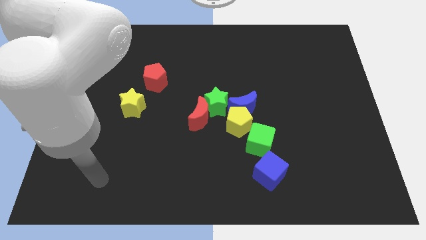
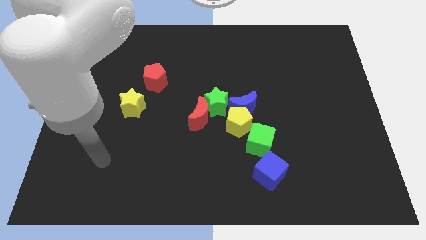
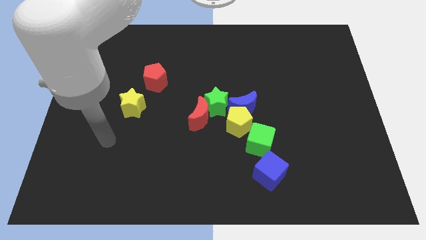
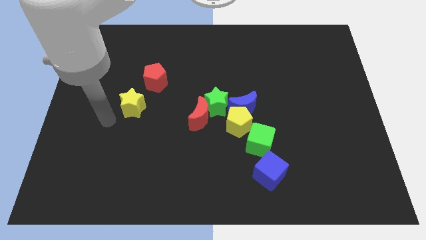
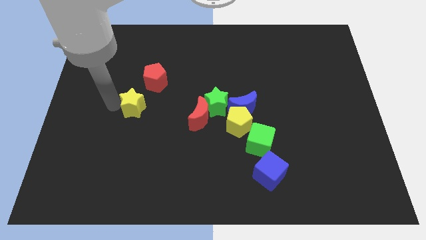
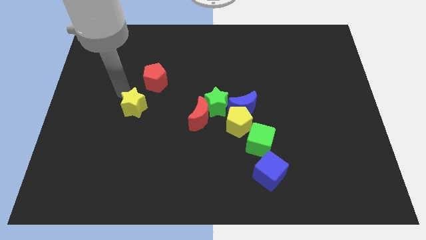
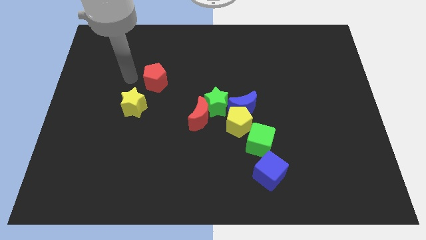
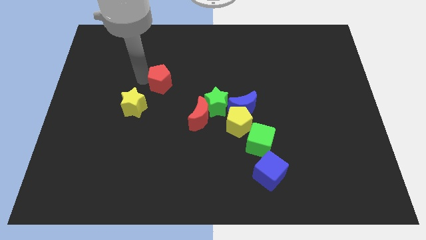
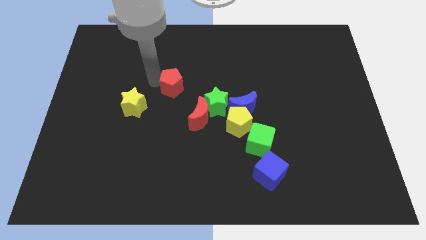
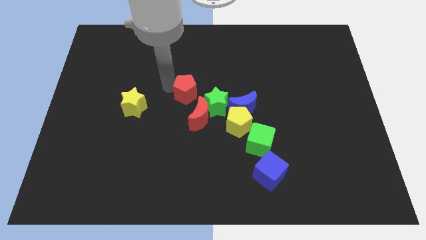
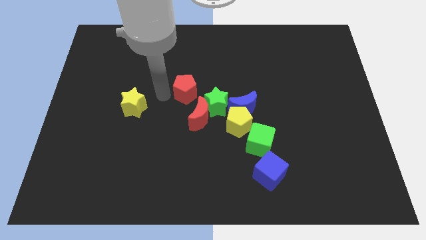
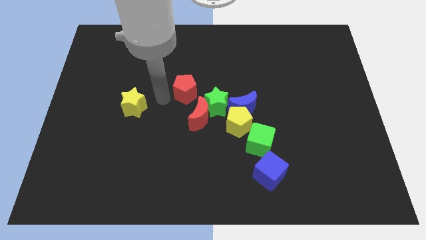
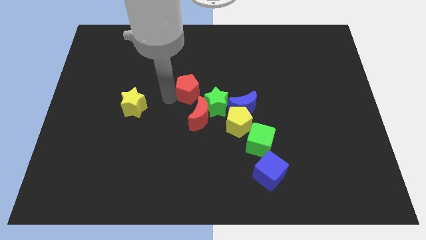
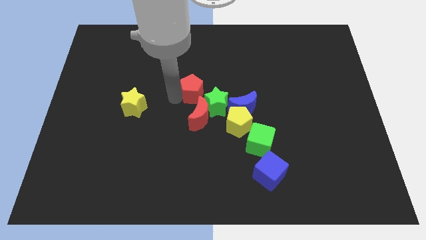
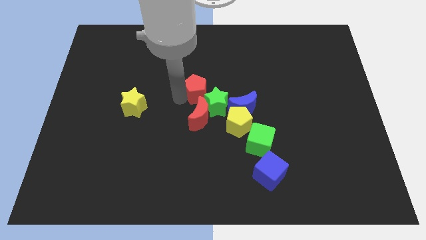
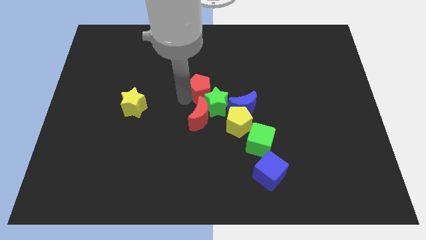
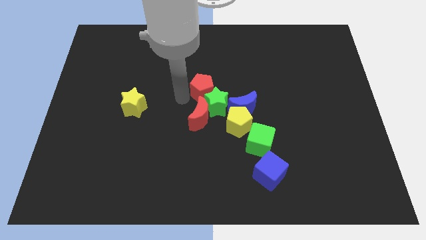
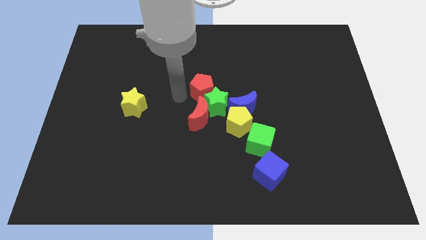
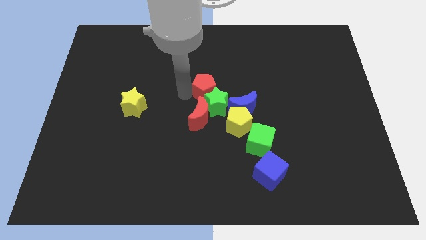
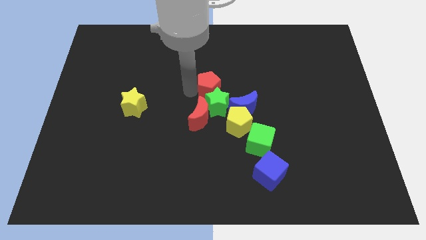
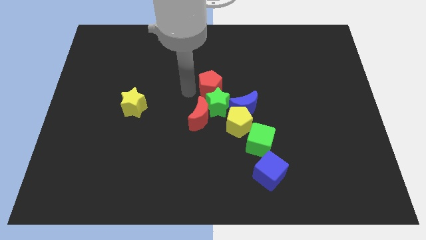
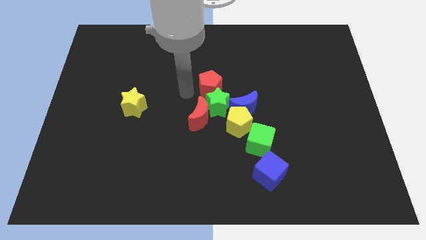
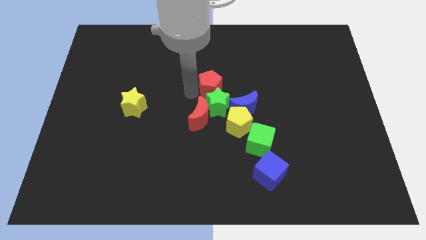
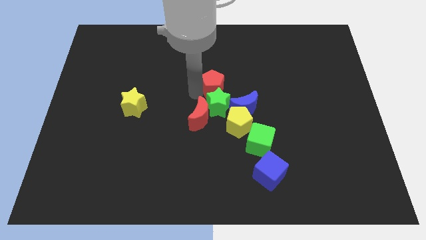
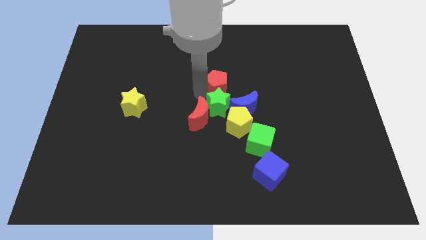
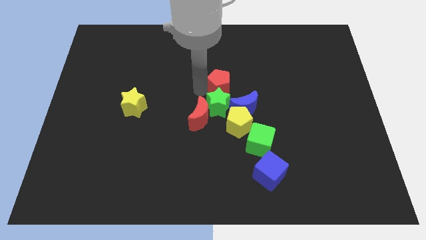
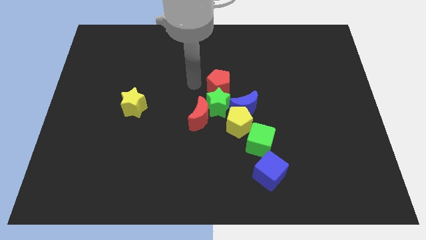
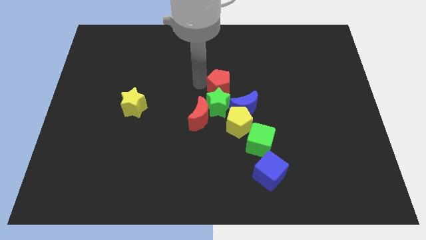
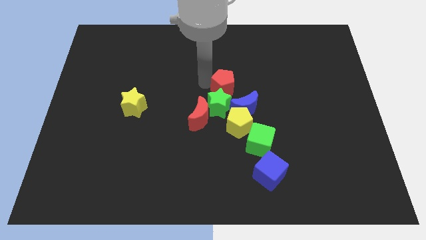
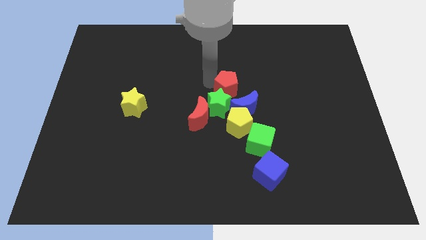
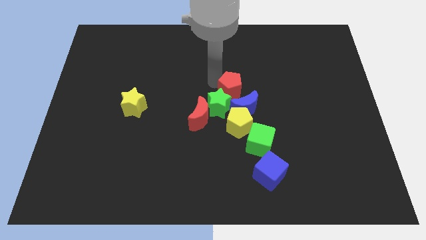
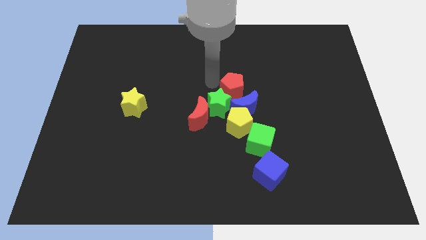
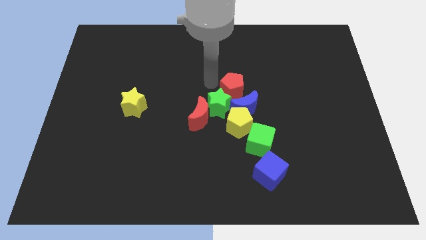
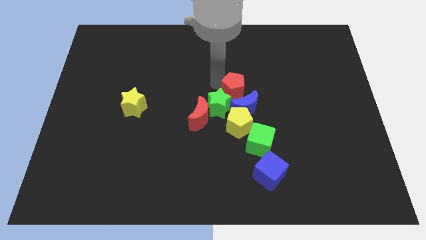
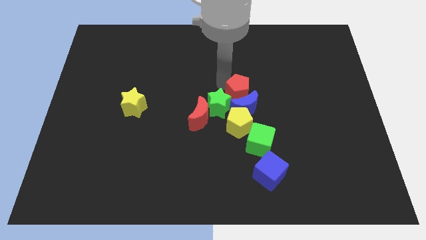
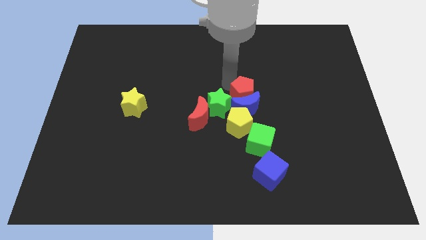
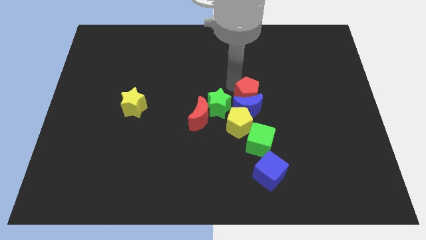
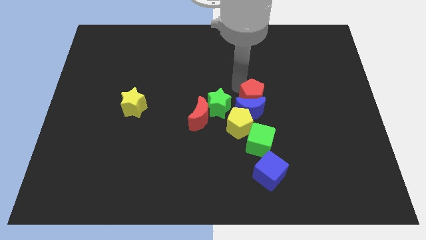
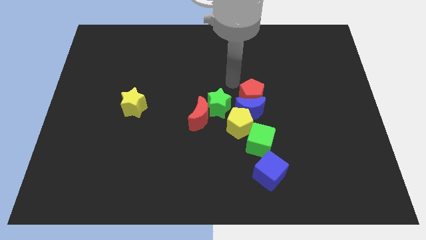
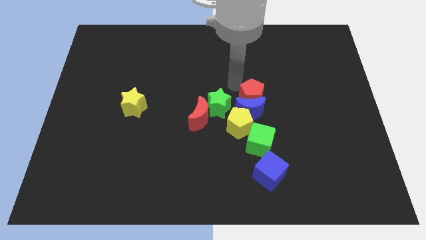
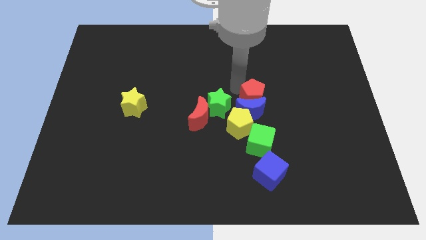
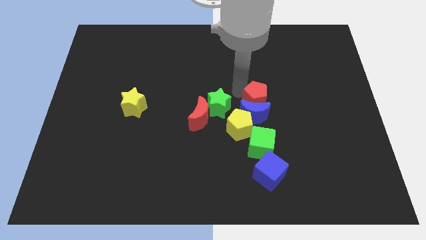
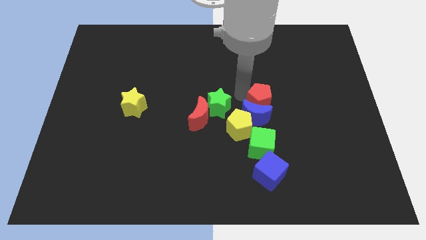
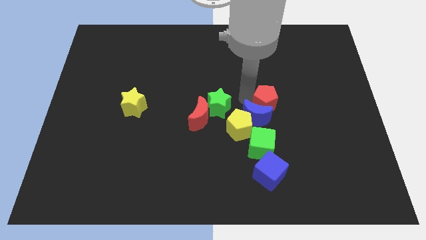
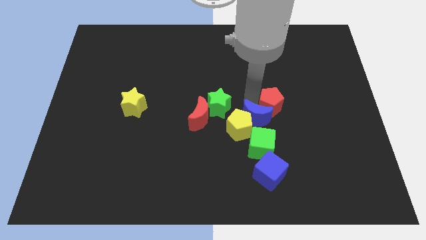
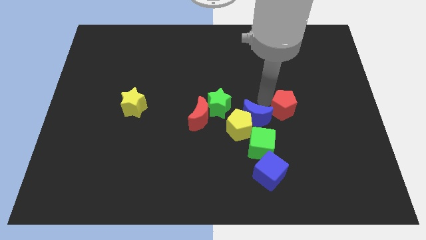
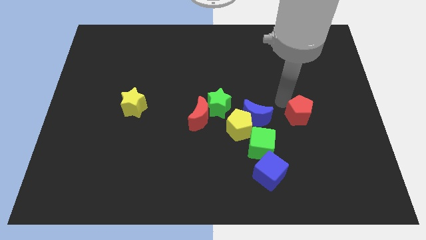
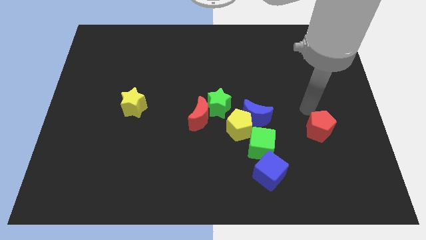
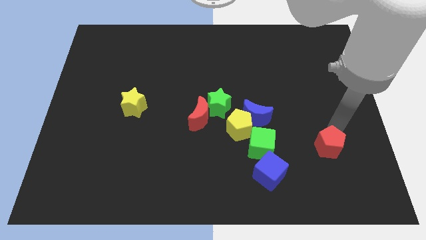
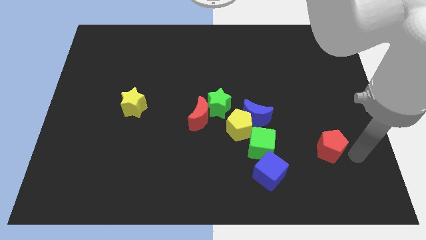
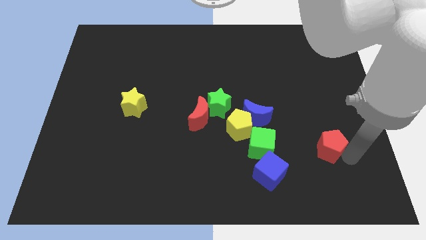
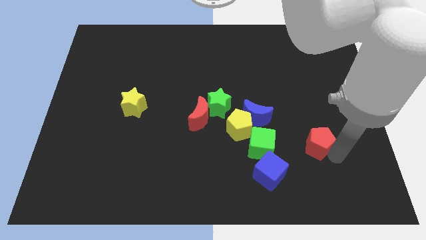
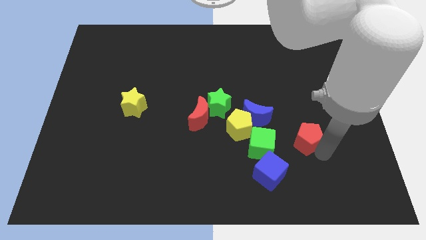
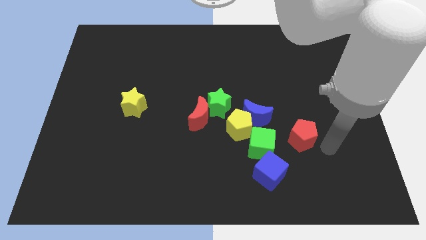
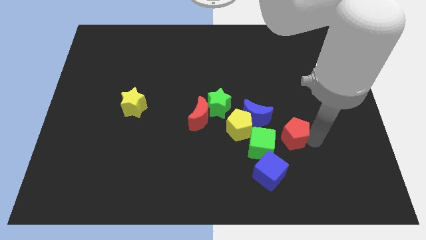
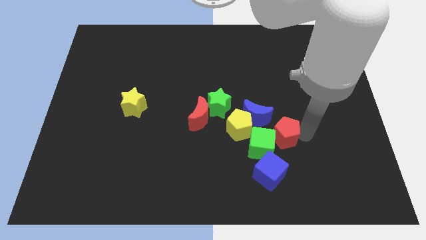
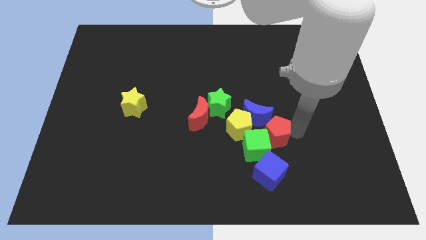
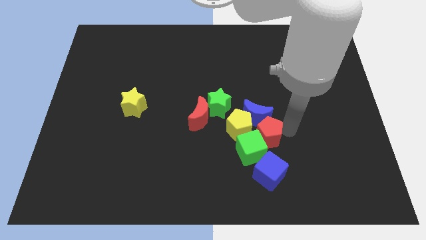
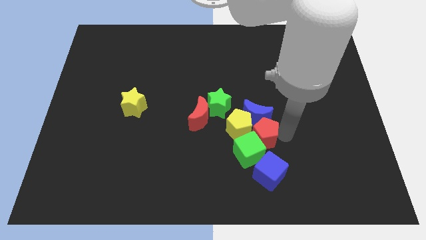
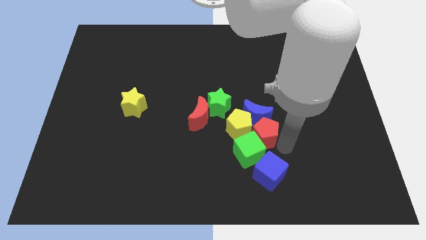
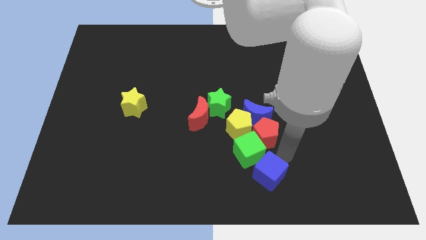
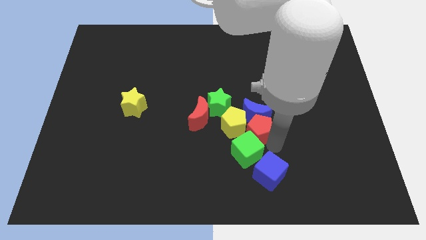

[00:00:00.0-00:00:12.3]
put the red pentagon to the right of the red moon

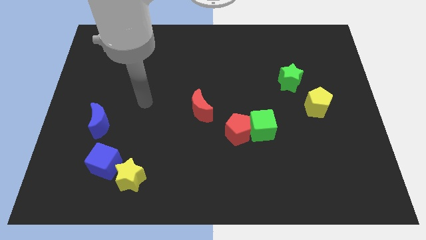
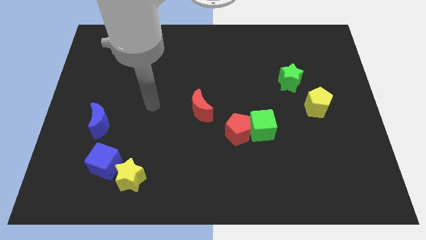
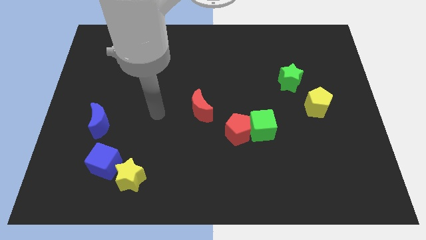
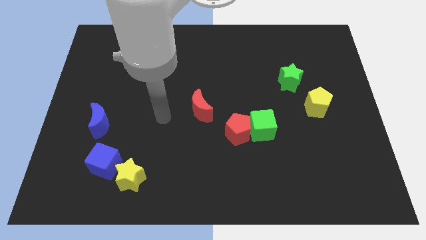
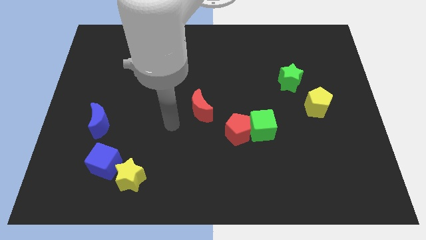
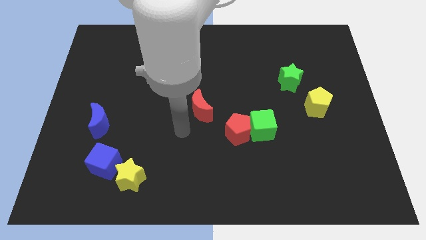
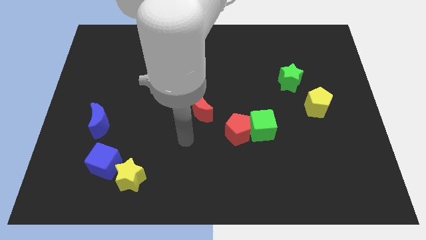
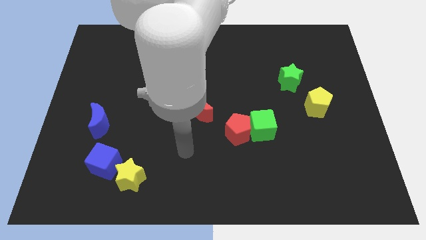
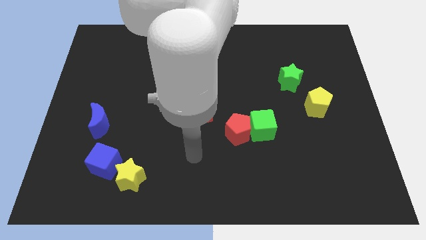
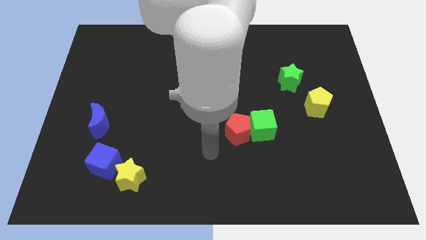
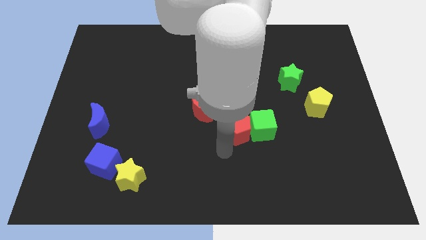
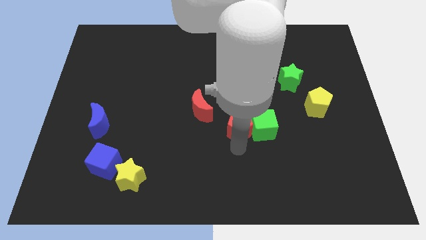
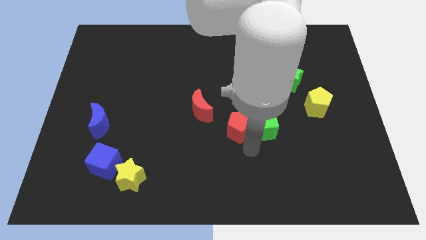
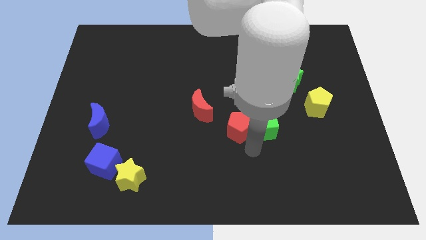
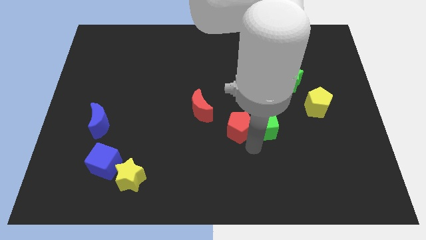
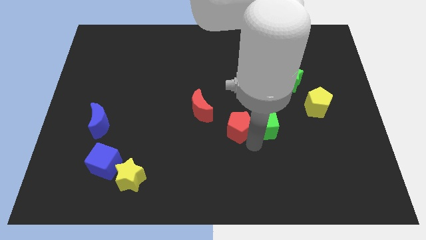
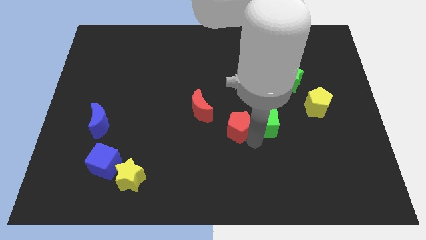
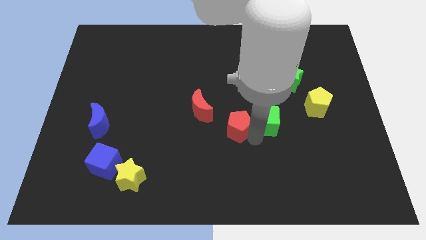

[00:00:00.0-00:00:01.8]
push the green cube to the left side of the yellow pentagon

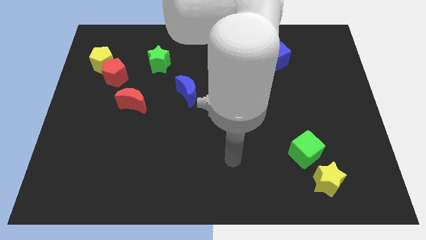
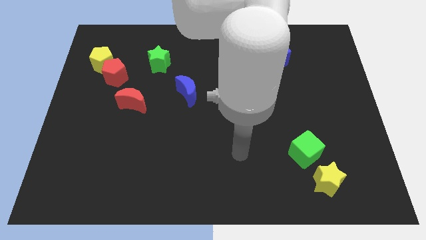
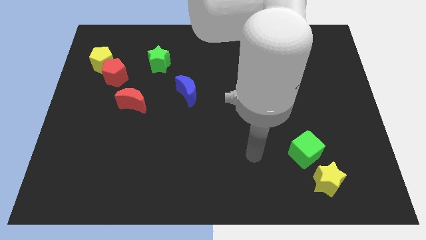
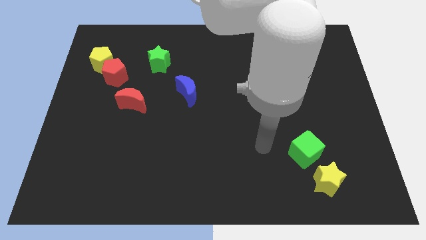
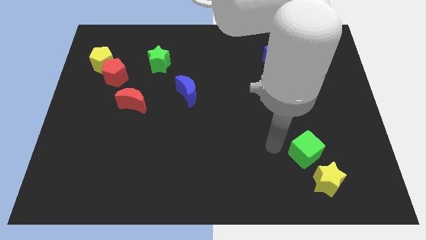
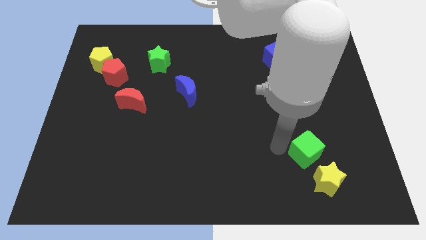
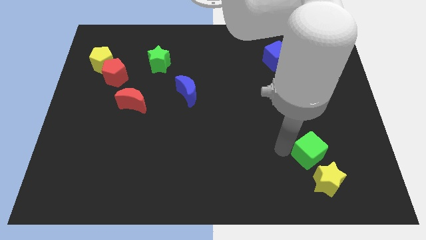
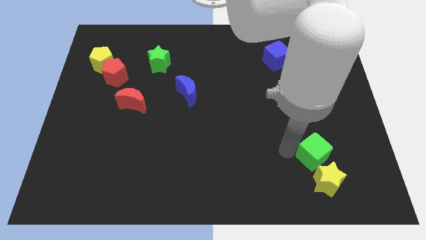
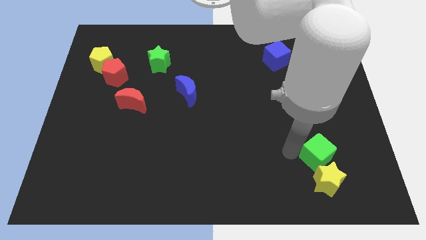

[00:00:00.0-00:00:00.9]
push the green cube to the top right side of the yellow star
